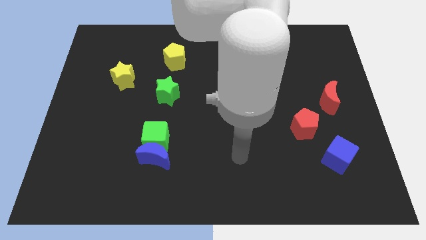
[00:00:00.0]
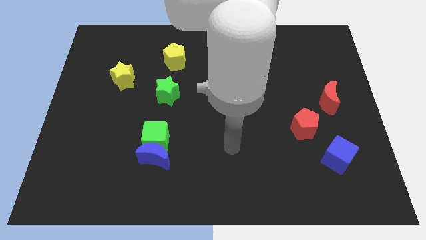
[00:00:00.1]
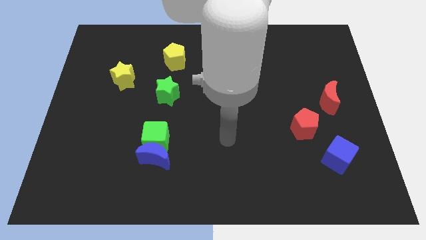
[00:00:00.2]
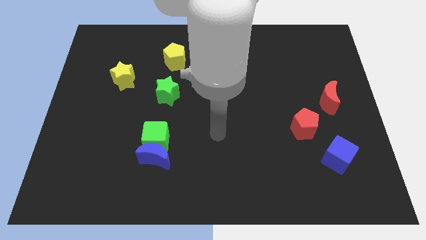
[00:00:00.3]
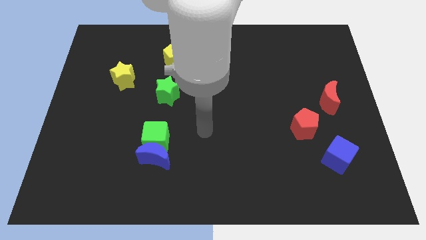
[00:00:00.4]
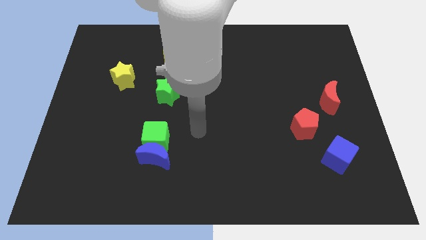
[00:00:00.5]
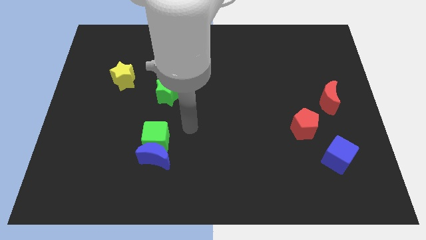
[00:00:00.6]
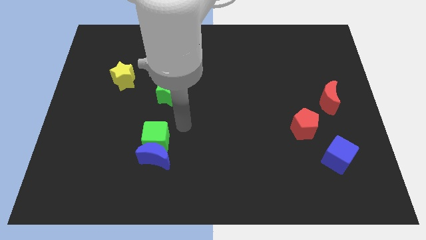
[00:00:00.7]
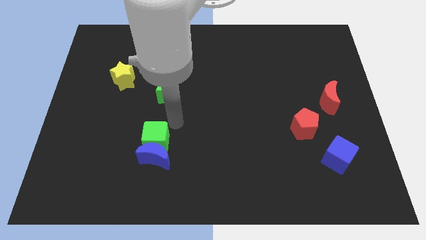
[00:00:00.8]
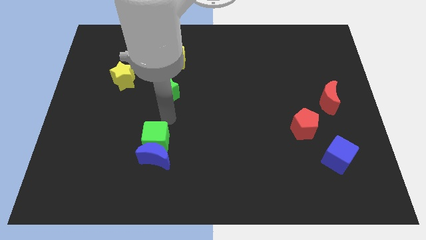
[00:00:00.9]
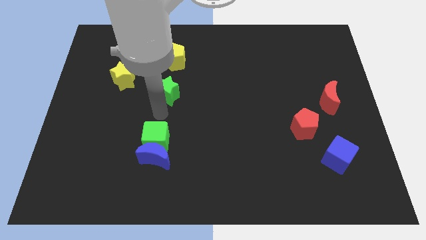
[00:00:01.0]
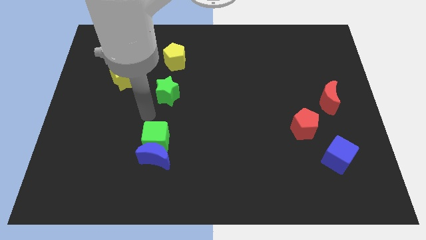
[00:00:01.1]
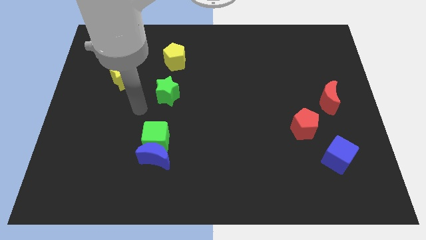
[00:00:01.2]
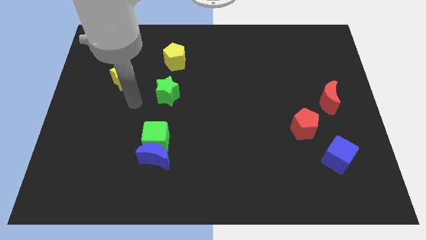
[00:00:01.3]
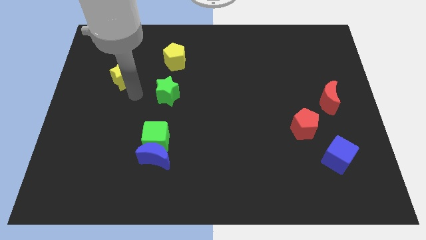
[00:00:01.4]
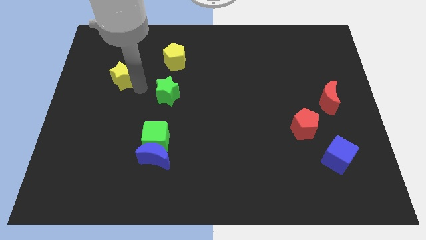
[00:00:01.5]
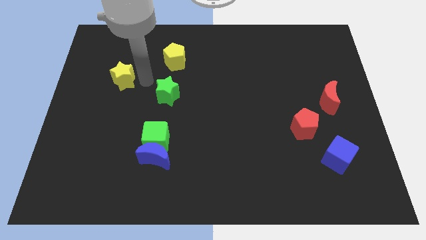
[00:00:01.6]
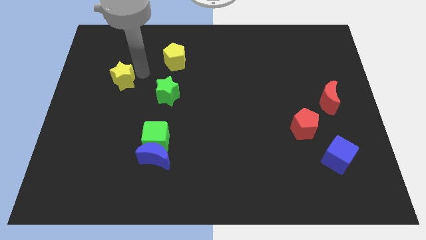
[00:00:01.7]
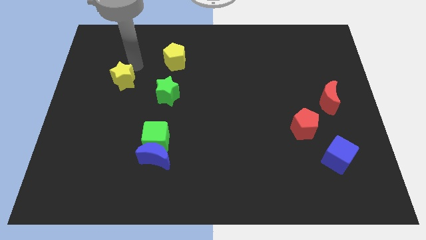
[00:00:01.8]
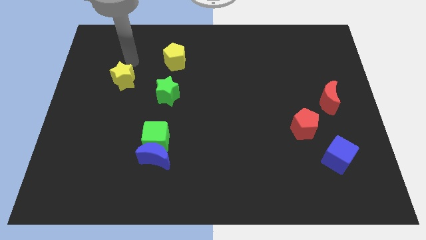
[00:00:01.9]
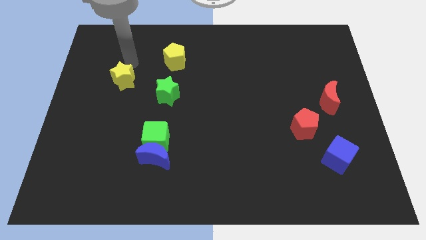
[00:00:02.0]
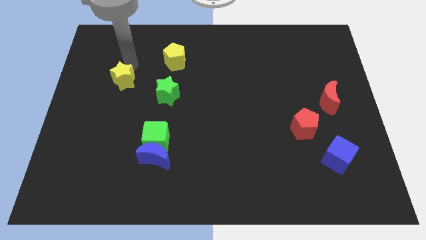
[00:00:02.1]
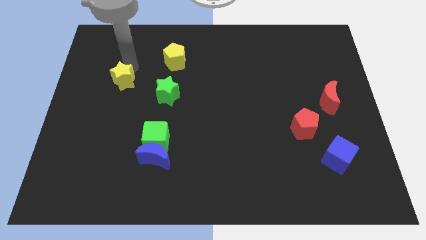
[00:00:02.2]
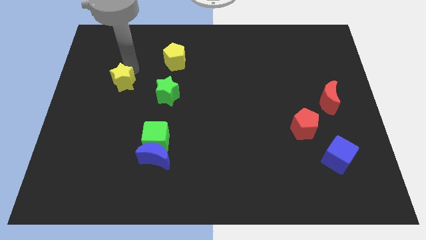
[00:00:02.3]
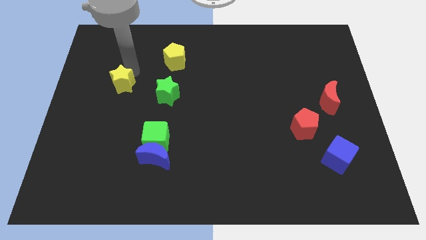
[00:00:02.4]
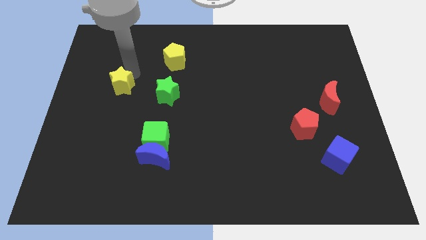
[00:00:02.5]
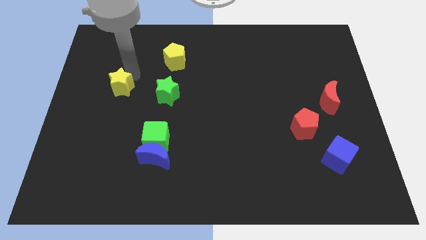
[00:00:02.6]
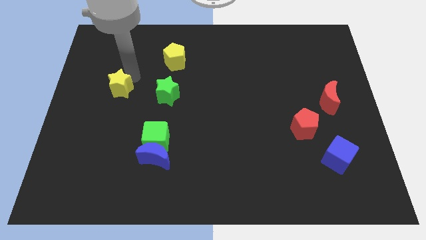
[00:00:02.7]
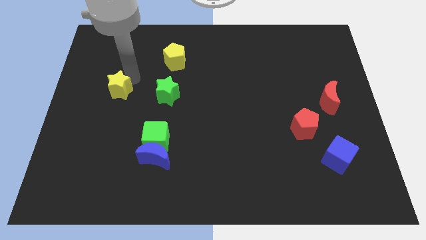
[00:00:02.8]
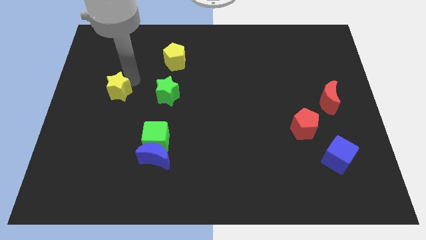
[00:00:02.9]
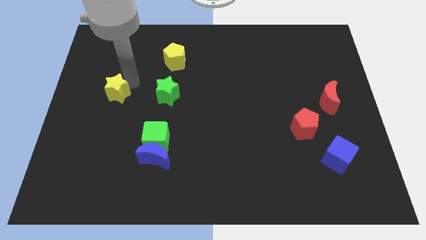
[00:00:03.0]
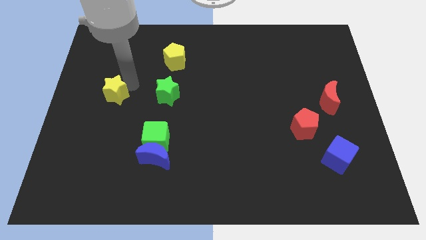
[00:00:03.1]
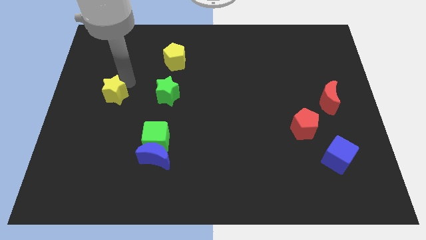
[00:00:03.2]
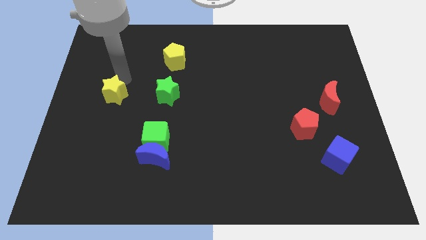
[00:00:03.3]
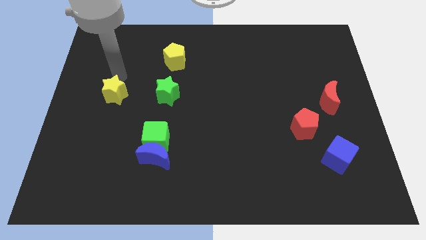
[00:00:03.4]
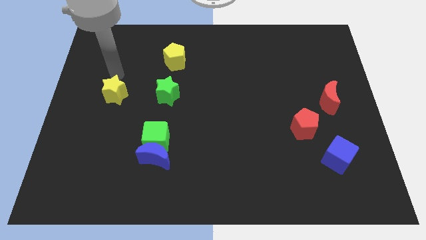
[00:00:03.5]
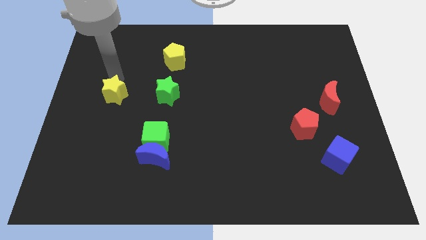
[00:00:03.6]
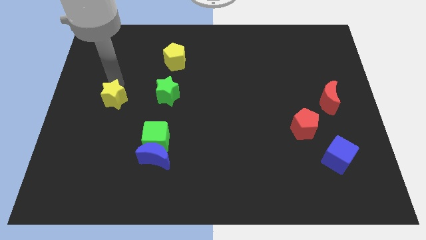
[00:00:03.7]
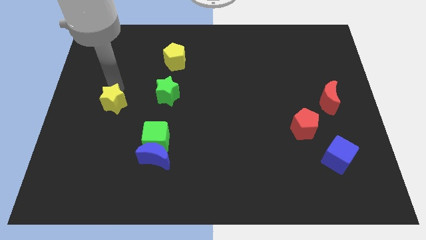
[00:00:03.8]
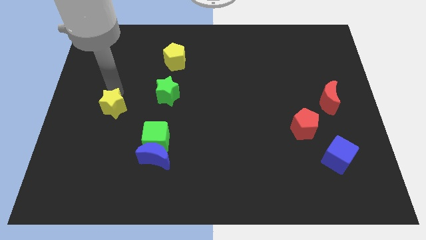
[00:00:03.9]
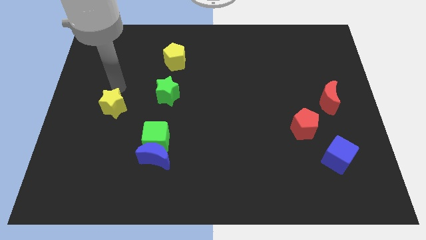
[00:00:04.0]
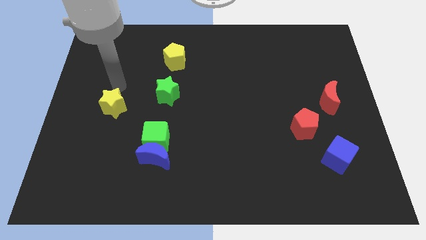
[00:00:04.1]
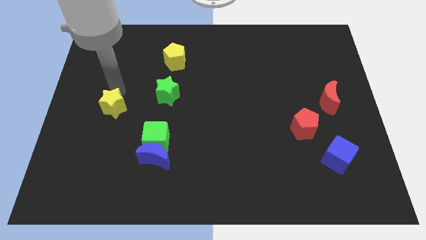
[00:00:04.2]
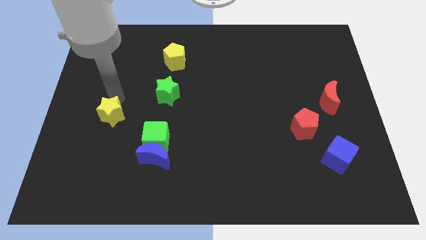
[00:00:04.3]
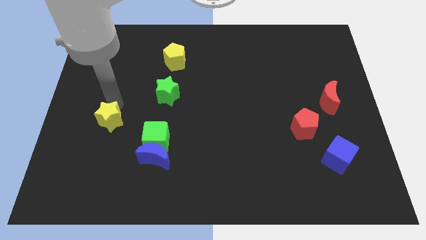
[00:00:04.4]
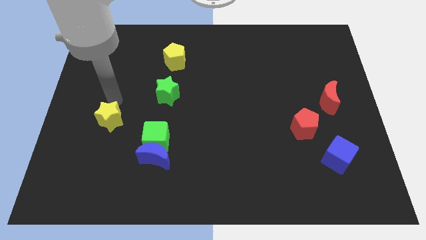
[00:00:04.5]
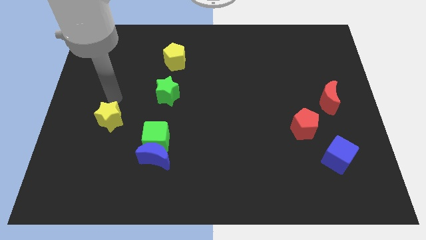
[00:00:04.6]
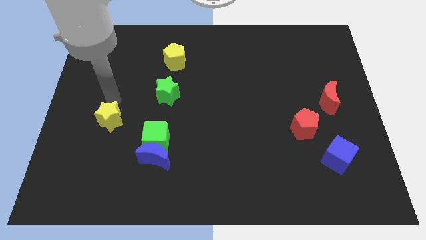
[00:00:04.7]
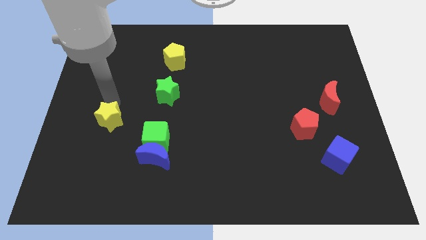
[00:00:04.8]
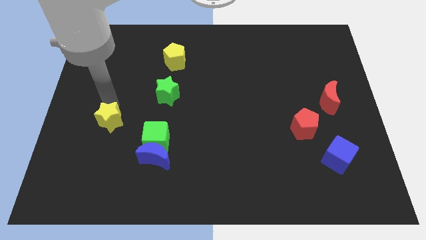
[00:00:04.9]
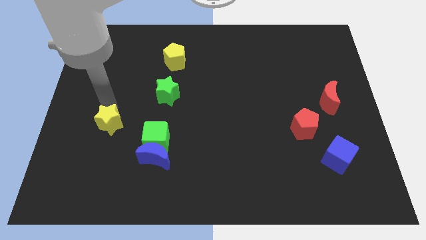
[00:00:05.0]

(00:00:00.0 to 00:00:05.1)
move the yellow star to the left of the green cube

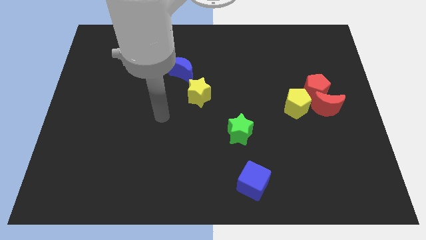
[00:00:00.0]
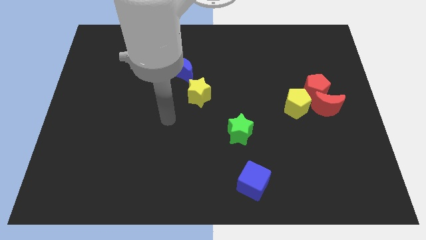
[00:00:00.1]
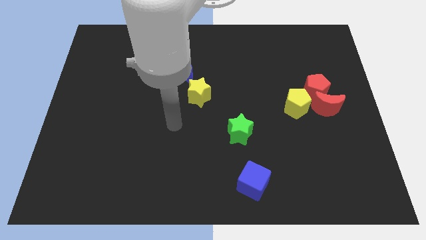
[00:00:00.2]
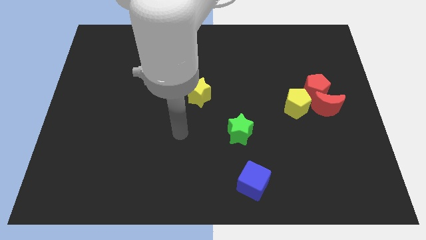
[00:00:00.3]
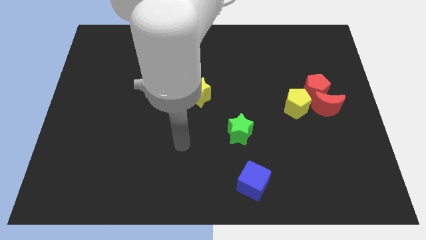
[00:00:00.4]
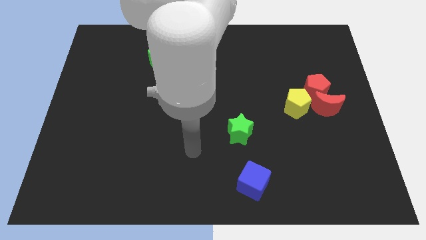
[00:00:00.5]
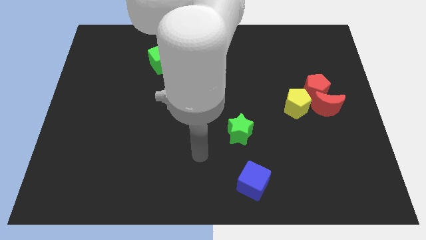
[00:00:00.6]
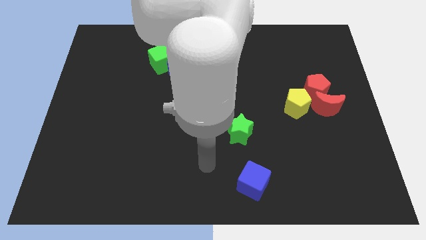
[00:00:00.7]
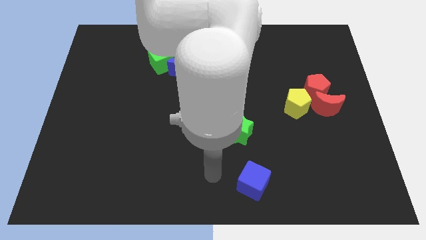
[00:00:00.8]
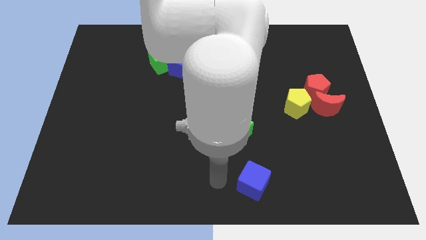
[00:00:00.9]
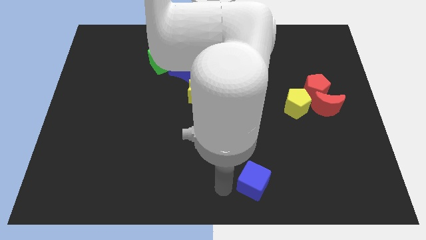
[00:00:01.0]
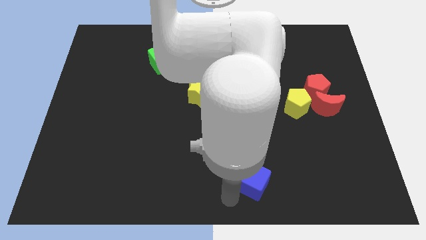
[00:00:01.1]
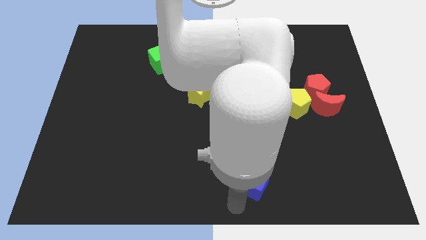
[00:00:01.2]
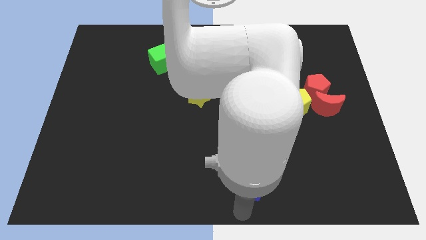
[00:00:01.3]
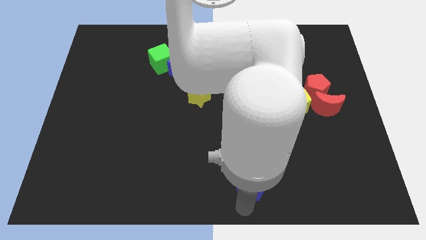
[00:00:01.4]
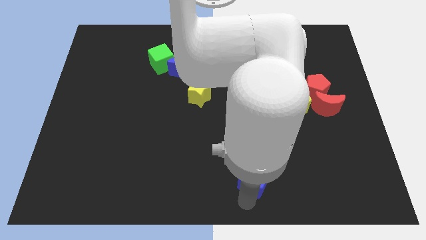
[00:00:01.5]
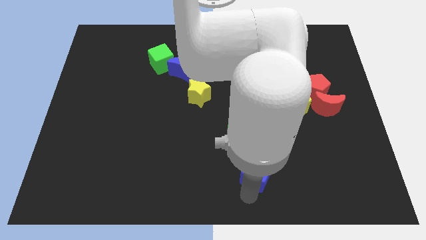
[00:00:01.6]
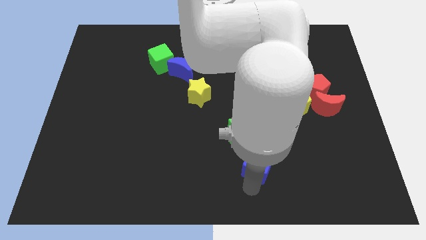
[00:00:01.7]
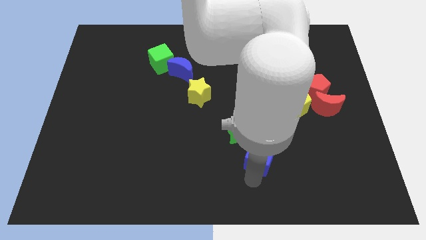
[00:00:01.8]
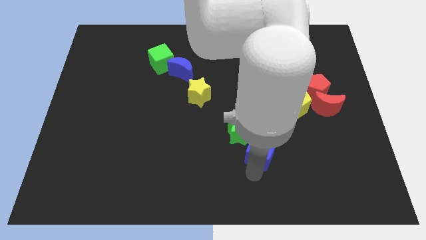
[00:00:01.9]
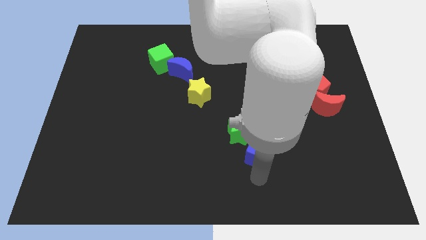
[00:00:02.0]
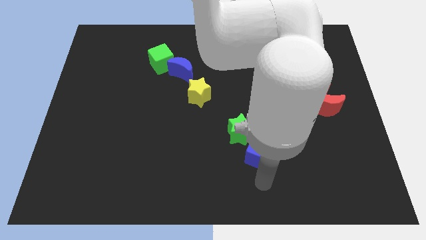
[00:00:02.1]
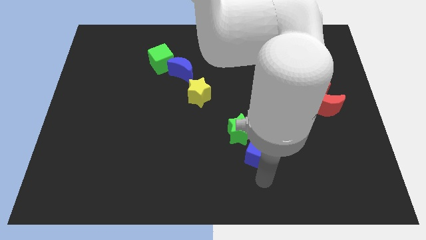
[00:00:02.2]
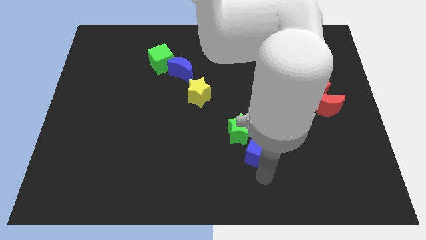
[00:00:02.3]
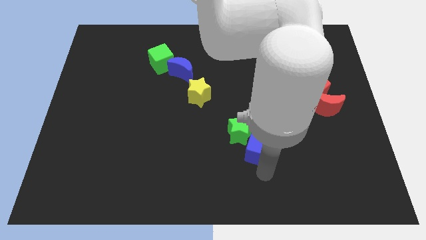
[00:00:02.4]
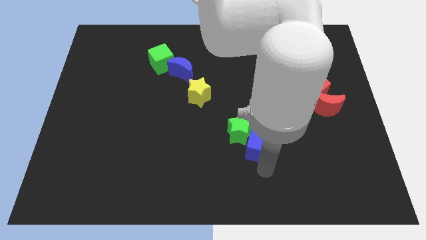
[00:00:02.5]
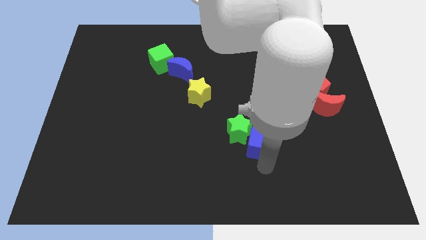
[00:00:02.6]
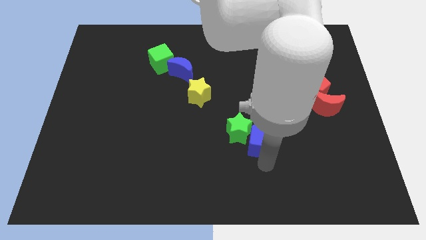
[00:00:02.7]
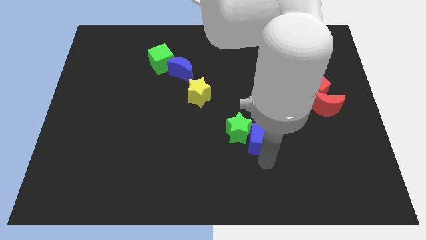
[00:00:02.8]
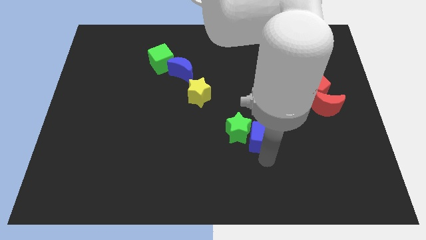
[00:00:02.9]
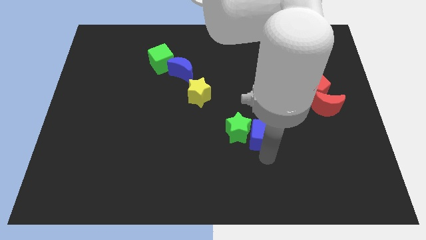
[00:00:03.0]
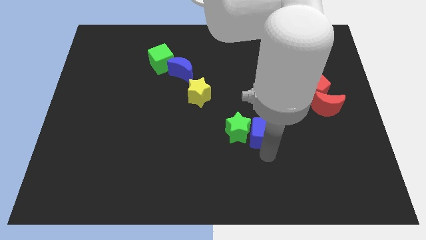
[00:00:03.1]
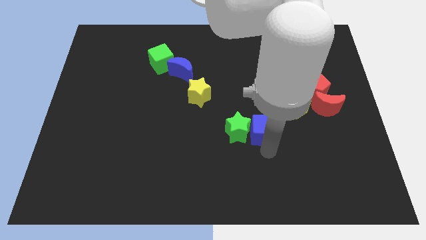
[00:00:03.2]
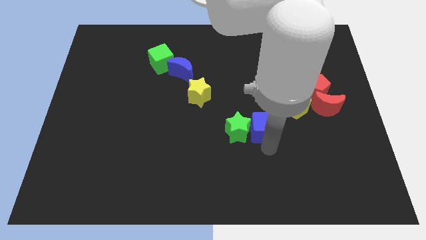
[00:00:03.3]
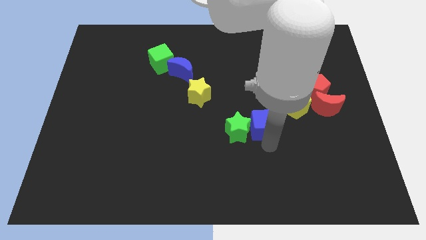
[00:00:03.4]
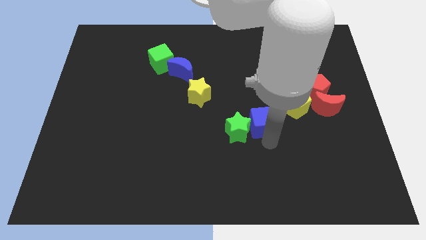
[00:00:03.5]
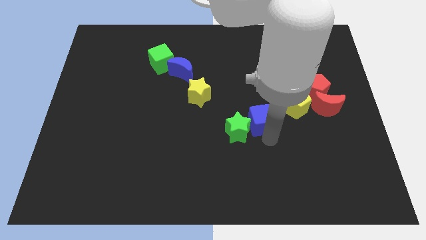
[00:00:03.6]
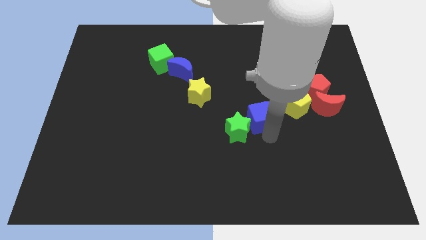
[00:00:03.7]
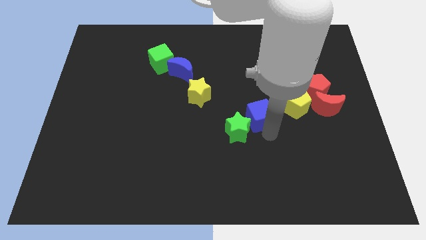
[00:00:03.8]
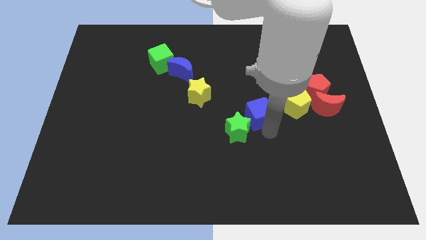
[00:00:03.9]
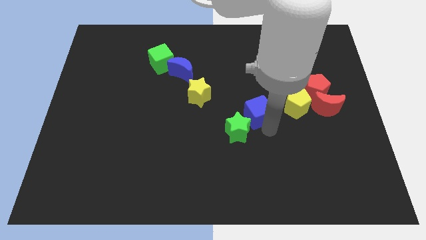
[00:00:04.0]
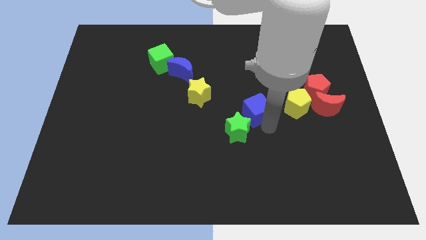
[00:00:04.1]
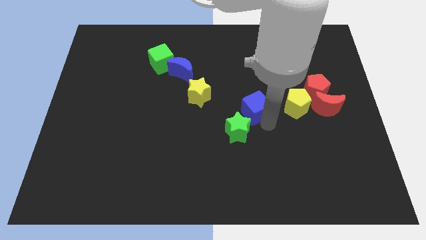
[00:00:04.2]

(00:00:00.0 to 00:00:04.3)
put the blue cube right of the yellow star
